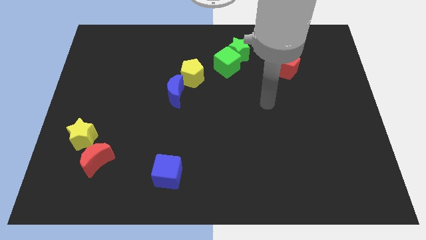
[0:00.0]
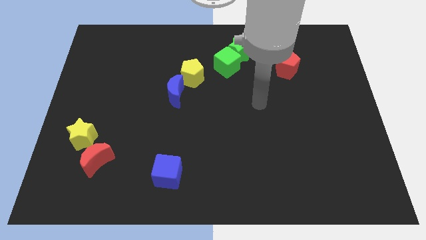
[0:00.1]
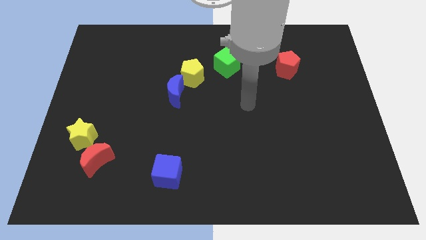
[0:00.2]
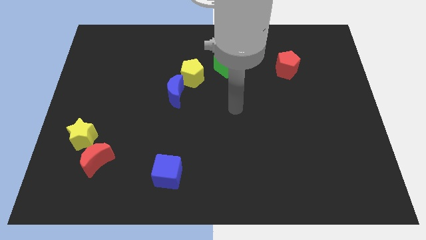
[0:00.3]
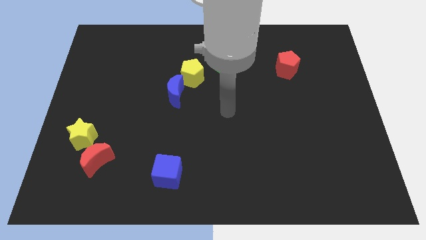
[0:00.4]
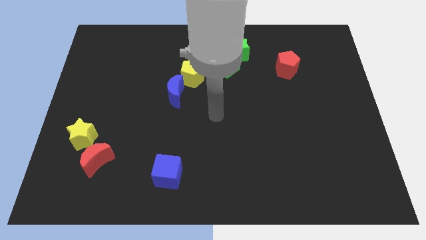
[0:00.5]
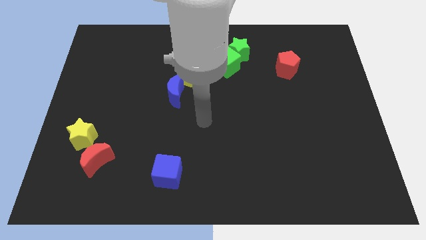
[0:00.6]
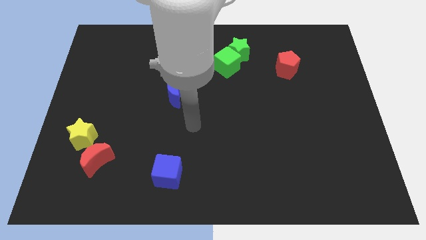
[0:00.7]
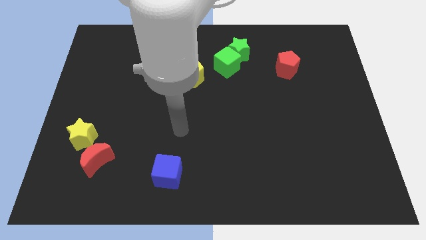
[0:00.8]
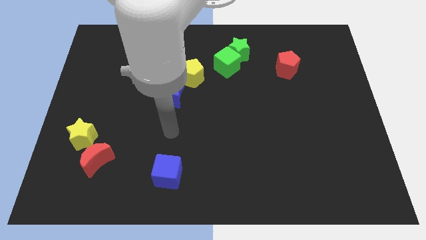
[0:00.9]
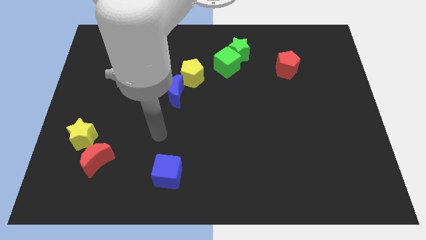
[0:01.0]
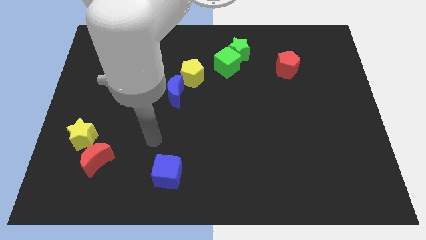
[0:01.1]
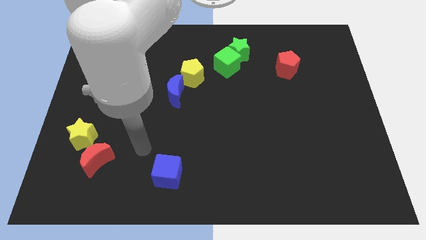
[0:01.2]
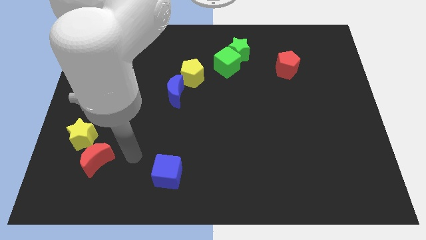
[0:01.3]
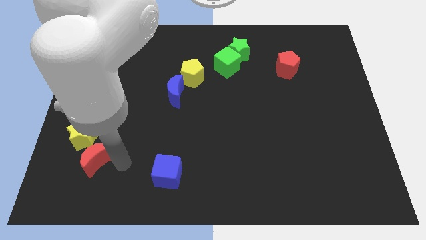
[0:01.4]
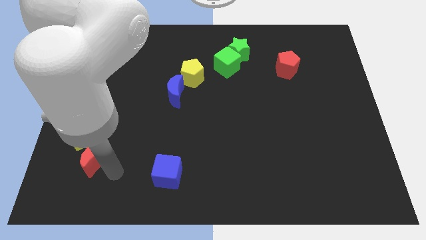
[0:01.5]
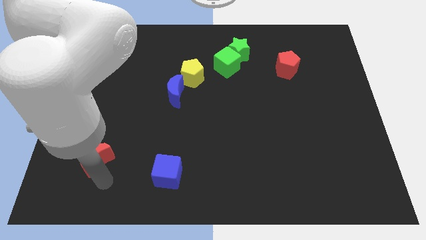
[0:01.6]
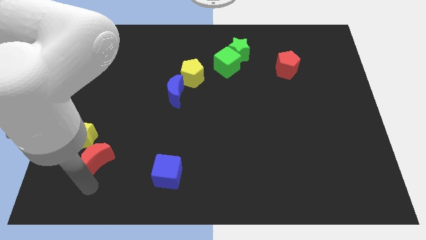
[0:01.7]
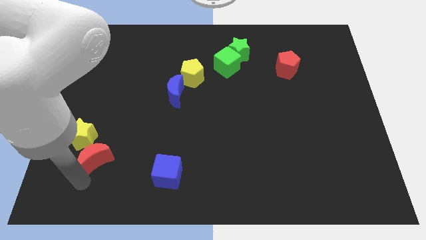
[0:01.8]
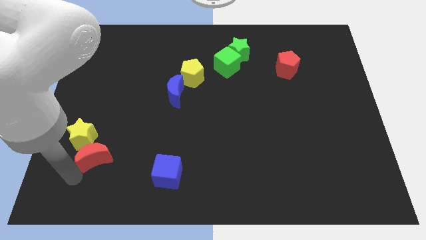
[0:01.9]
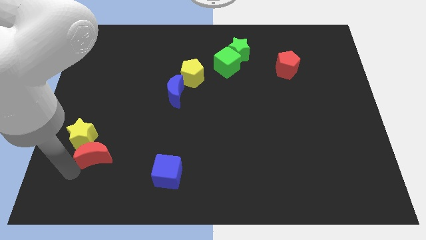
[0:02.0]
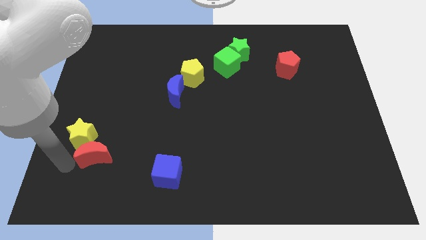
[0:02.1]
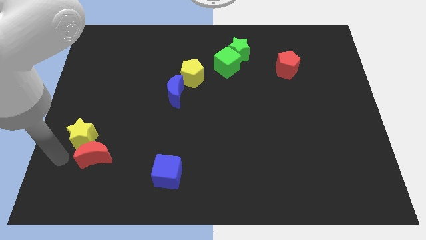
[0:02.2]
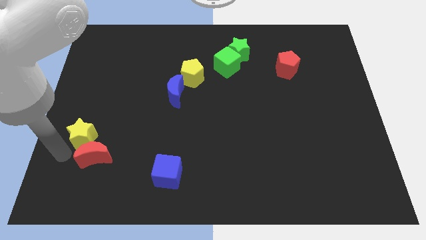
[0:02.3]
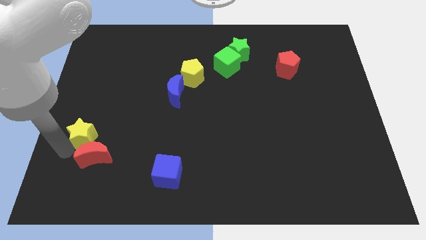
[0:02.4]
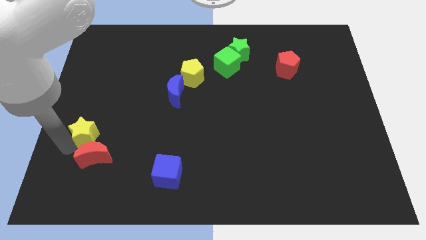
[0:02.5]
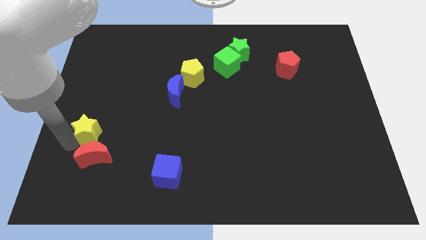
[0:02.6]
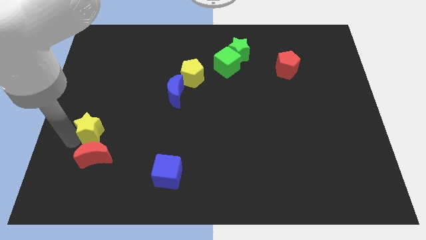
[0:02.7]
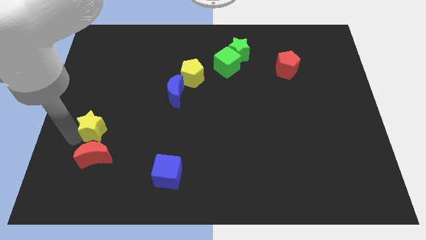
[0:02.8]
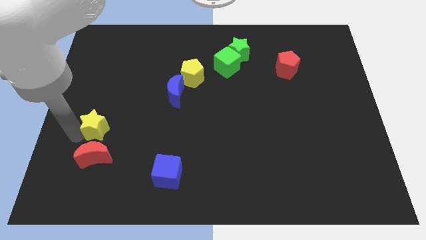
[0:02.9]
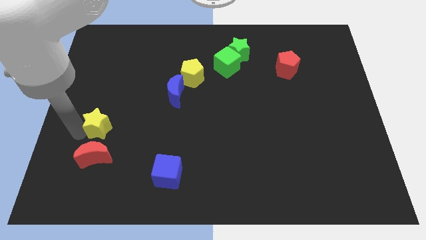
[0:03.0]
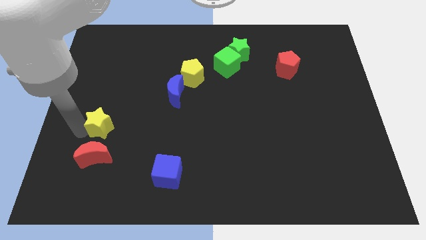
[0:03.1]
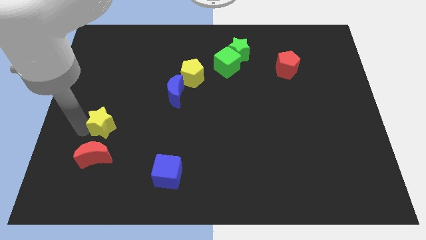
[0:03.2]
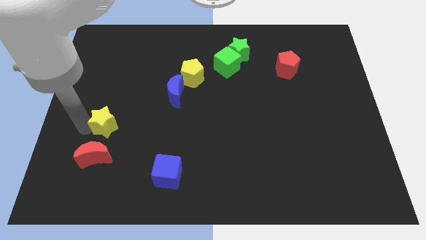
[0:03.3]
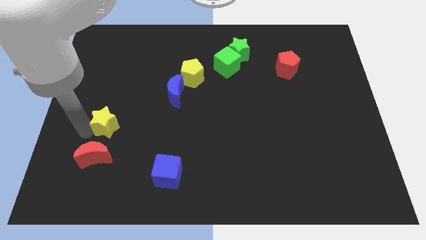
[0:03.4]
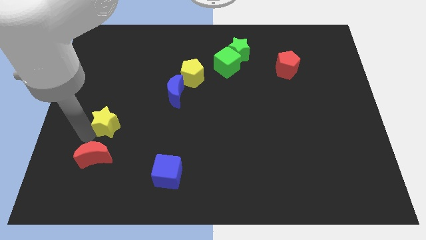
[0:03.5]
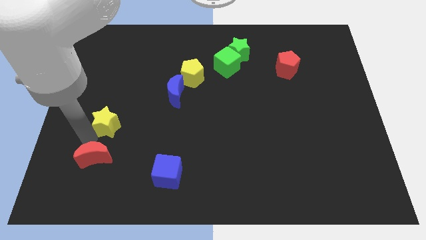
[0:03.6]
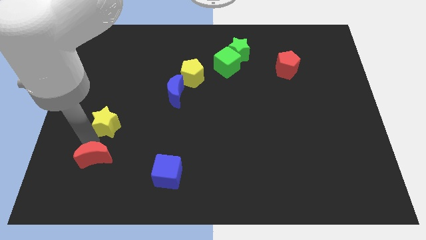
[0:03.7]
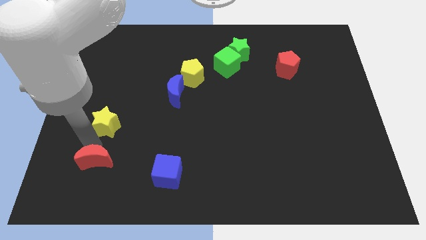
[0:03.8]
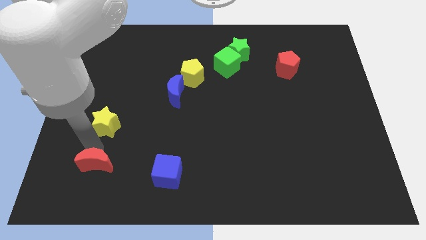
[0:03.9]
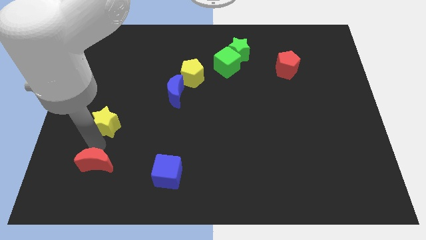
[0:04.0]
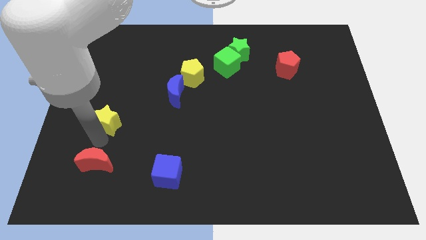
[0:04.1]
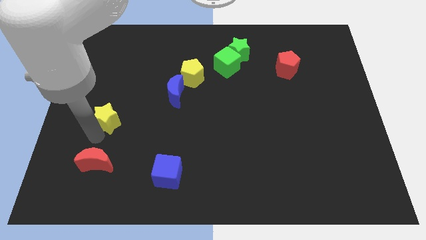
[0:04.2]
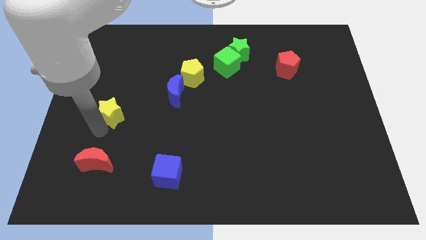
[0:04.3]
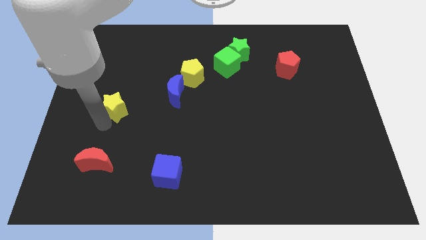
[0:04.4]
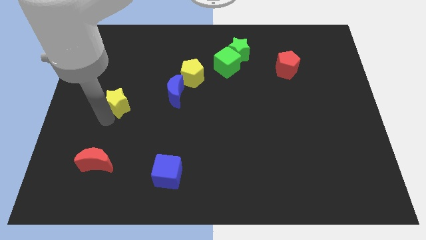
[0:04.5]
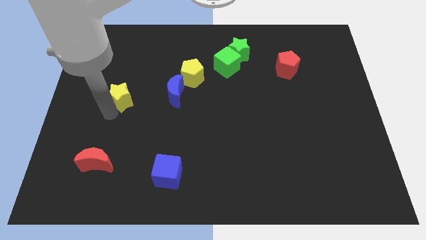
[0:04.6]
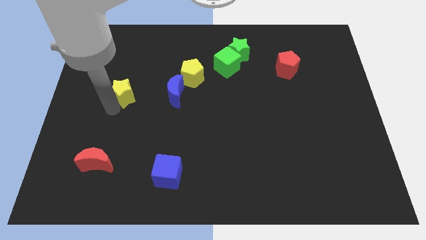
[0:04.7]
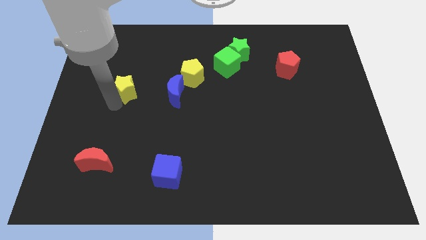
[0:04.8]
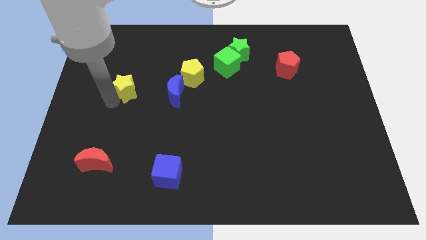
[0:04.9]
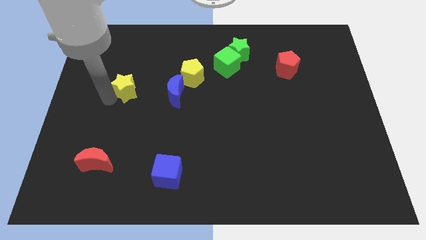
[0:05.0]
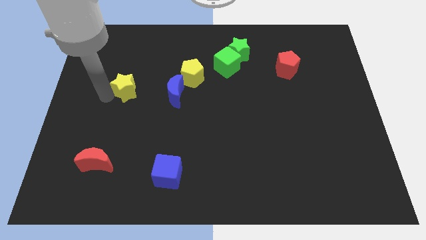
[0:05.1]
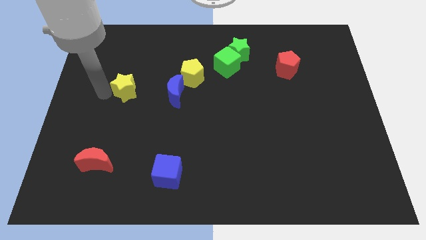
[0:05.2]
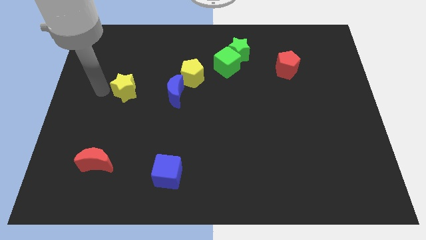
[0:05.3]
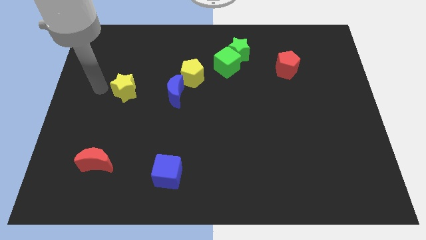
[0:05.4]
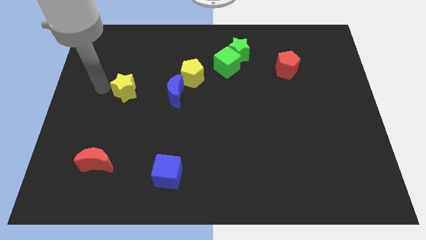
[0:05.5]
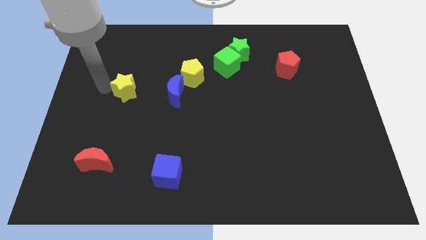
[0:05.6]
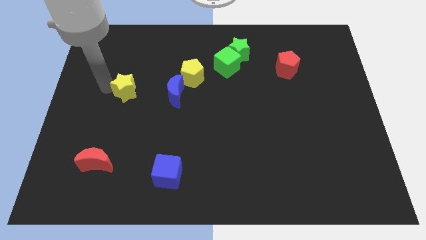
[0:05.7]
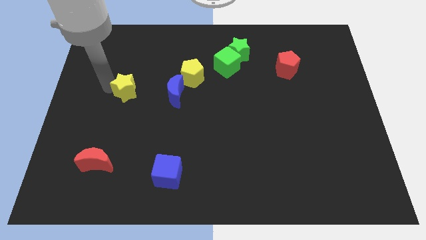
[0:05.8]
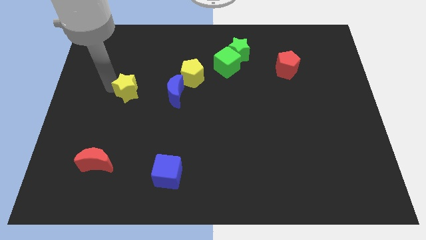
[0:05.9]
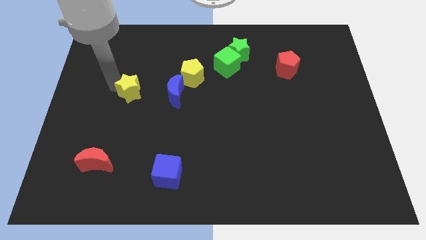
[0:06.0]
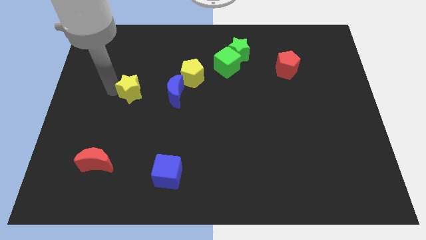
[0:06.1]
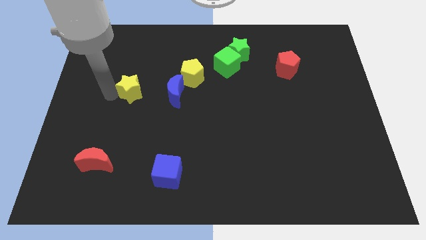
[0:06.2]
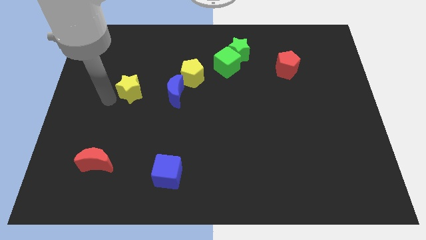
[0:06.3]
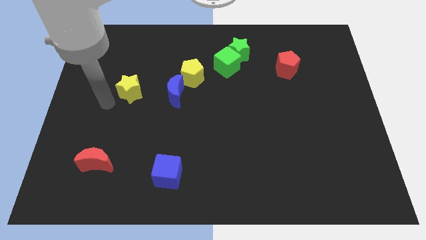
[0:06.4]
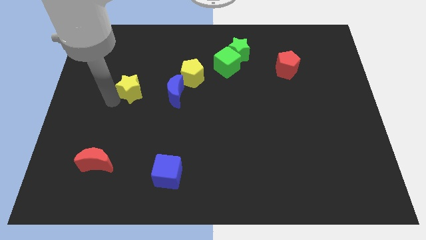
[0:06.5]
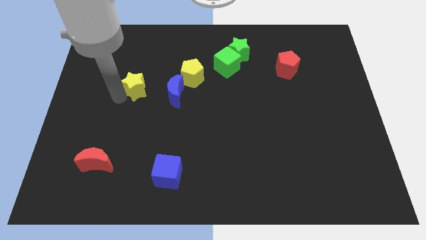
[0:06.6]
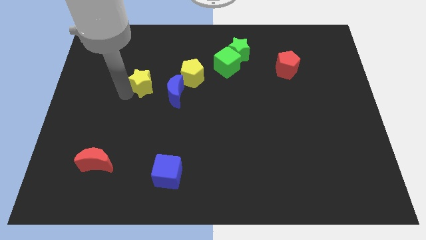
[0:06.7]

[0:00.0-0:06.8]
move the yellow star to the top left side of the blue moon

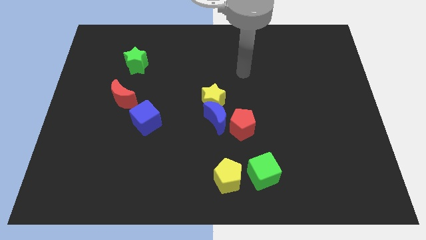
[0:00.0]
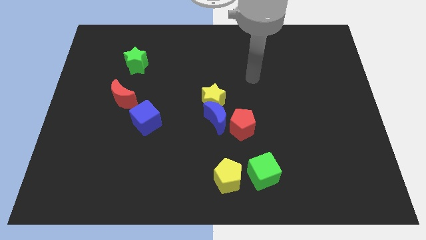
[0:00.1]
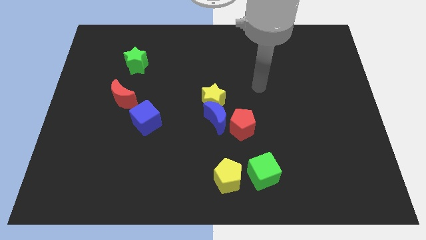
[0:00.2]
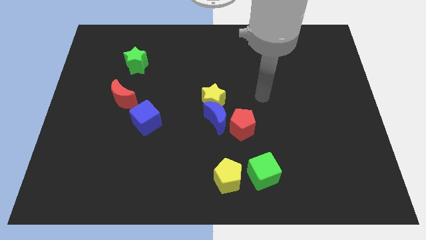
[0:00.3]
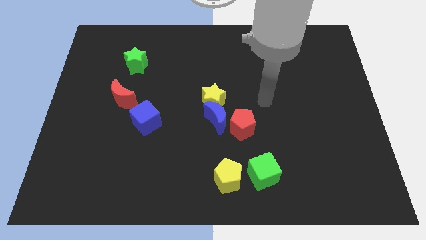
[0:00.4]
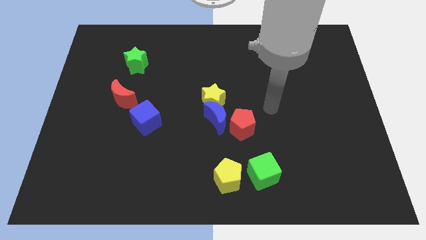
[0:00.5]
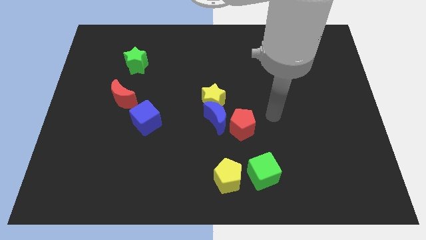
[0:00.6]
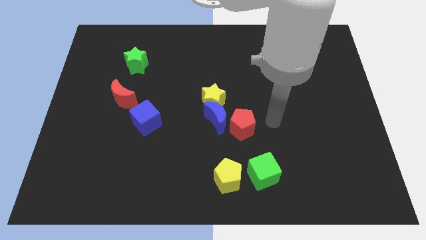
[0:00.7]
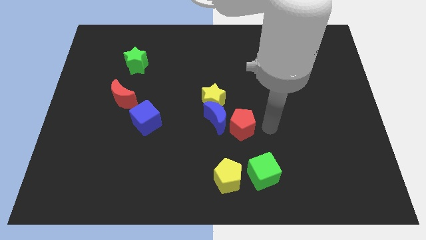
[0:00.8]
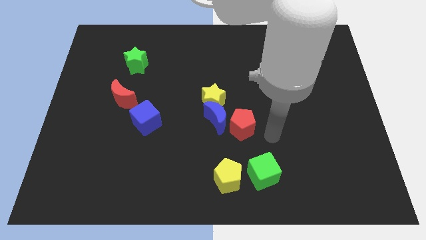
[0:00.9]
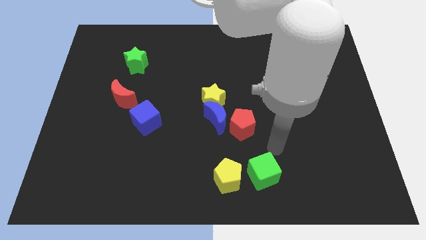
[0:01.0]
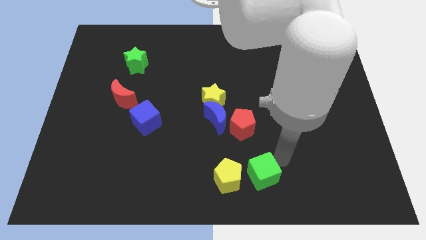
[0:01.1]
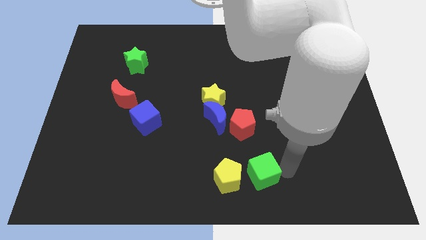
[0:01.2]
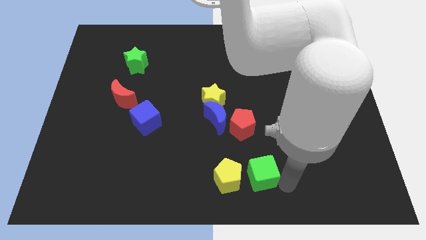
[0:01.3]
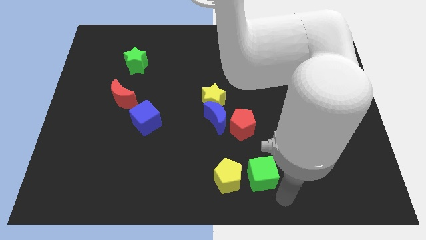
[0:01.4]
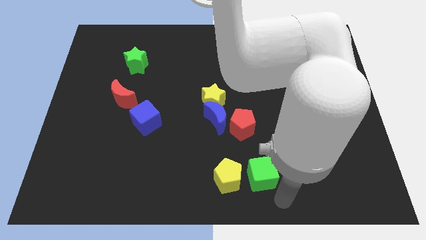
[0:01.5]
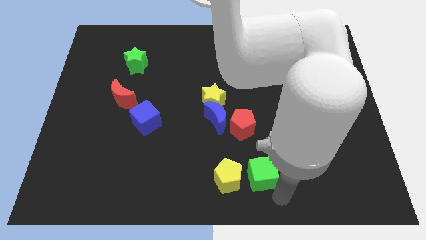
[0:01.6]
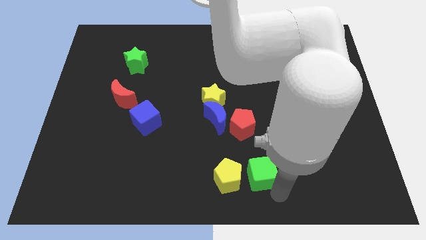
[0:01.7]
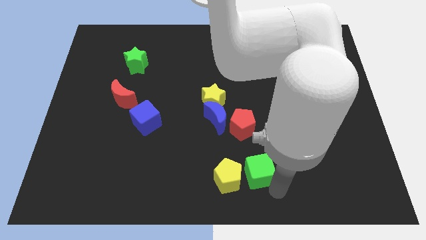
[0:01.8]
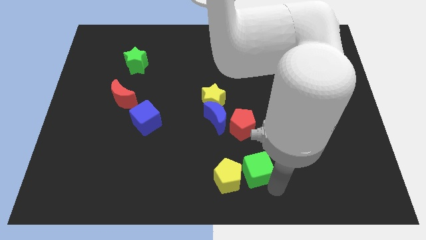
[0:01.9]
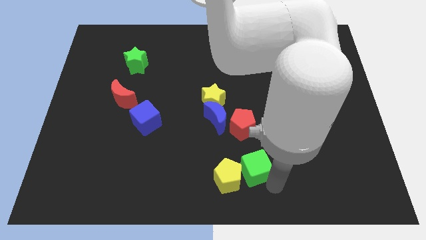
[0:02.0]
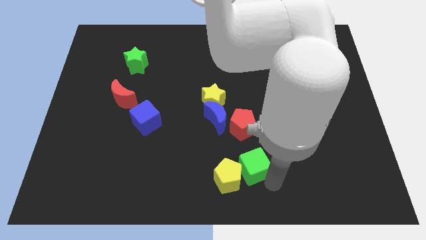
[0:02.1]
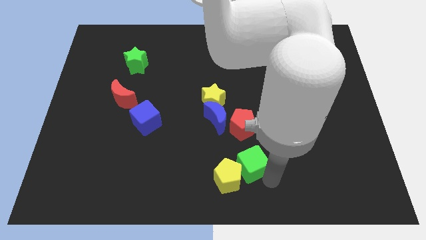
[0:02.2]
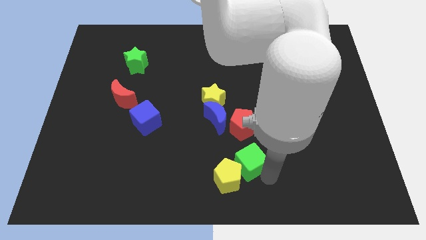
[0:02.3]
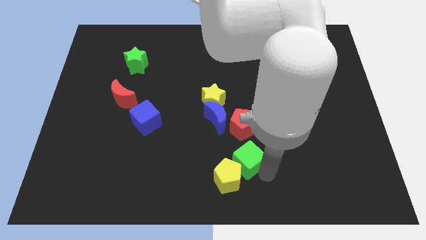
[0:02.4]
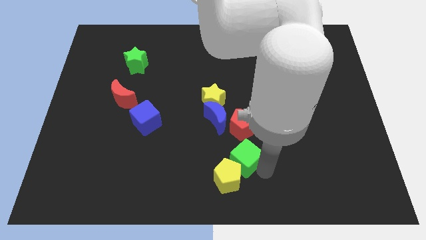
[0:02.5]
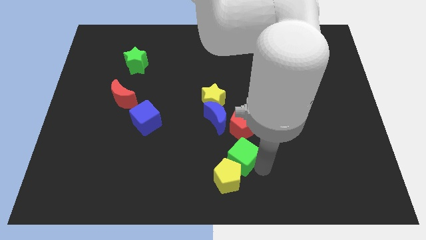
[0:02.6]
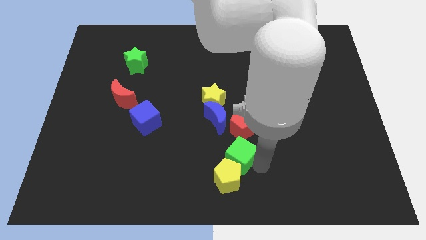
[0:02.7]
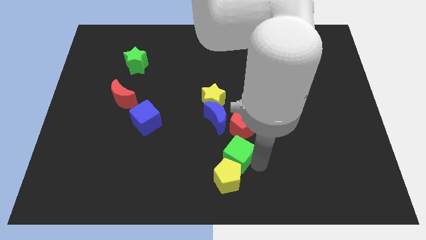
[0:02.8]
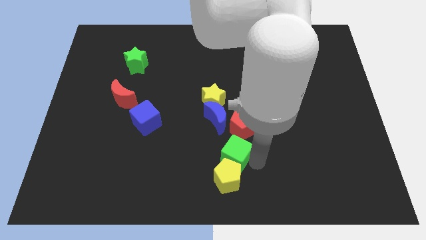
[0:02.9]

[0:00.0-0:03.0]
push the green cube diagonally up and to the left of the yellow pentagon
